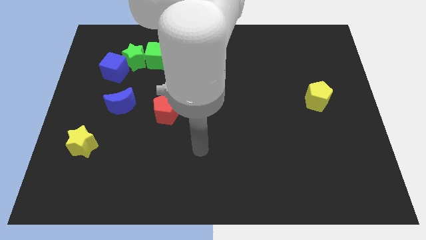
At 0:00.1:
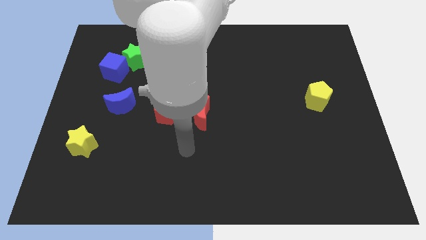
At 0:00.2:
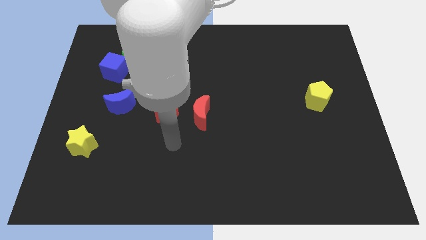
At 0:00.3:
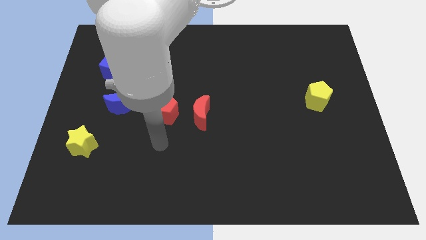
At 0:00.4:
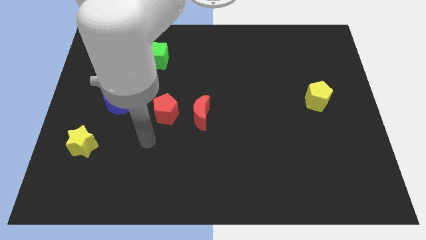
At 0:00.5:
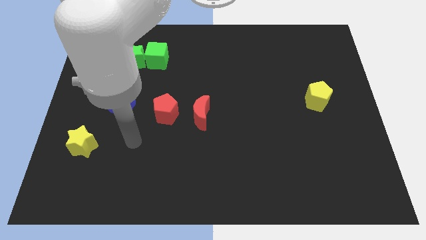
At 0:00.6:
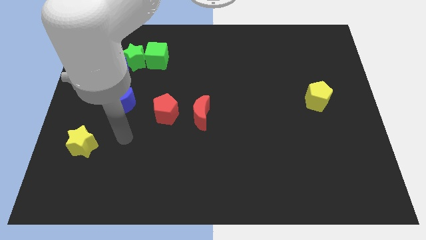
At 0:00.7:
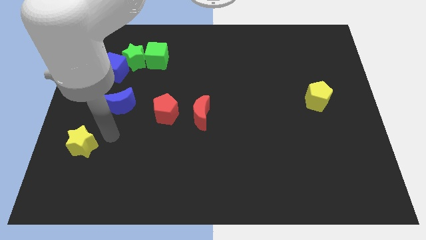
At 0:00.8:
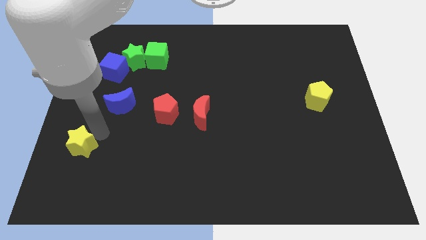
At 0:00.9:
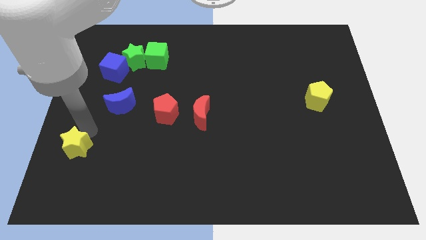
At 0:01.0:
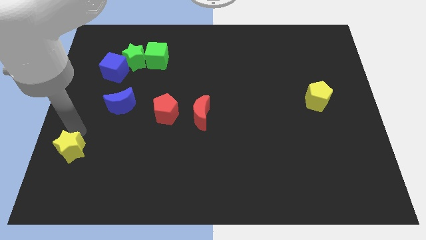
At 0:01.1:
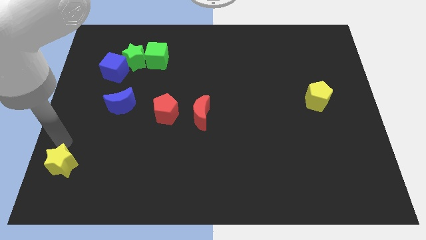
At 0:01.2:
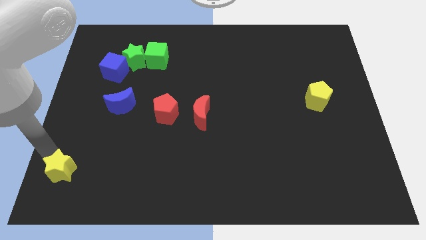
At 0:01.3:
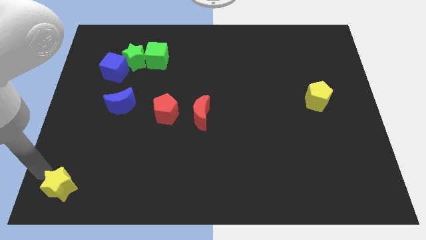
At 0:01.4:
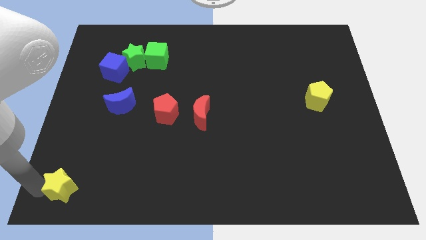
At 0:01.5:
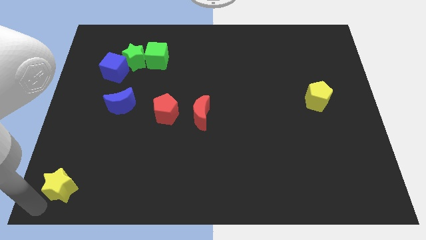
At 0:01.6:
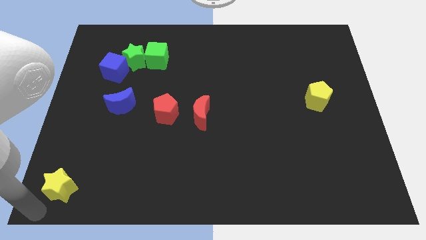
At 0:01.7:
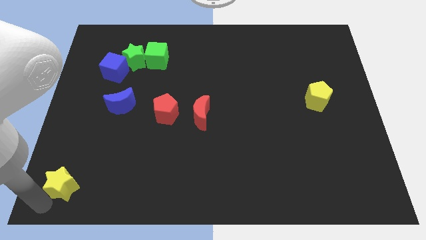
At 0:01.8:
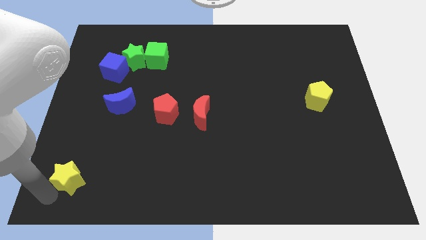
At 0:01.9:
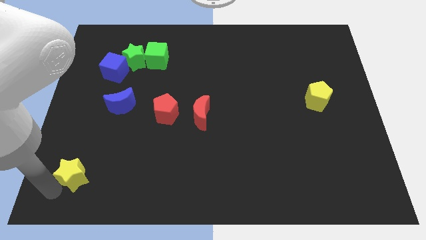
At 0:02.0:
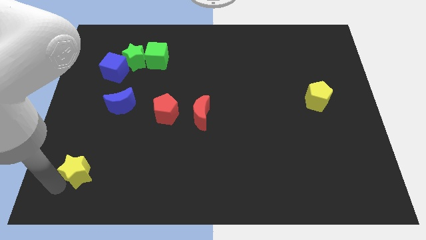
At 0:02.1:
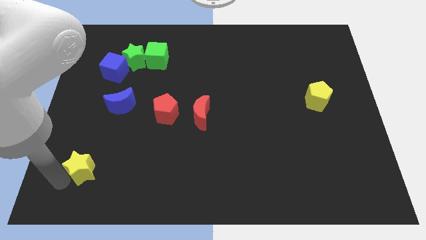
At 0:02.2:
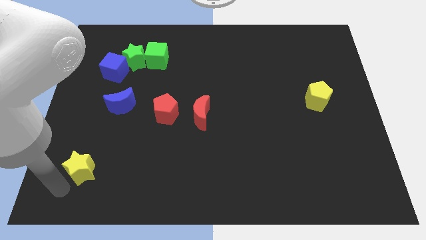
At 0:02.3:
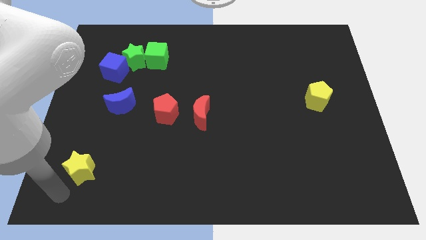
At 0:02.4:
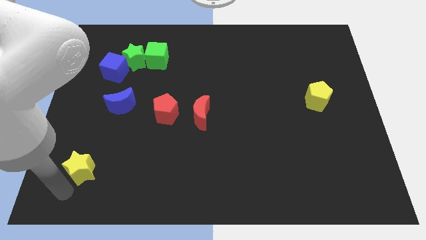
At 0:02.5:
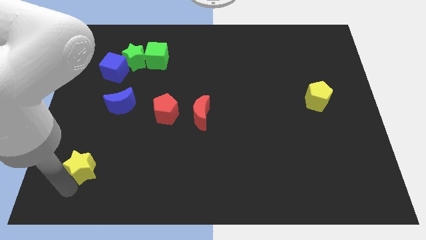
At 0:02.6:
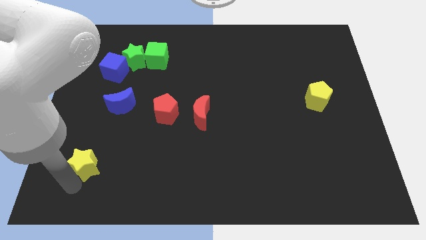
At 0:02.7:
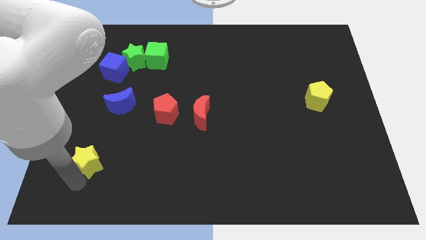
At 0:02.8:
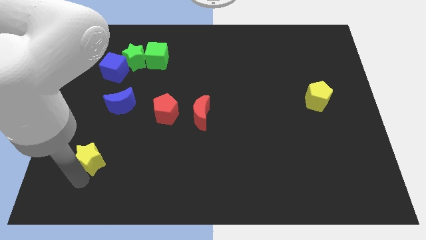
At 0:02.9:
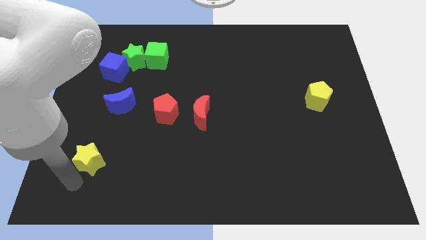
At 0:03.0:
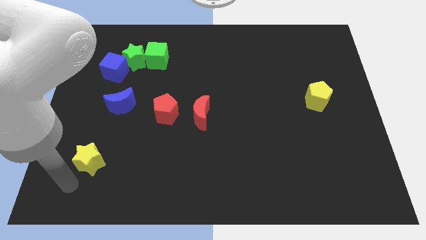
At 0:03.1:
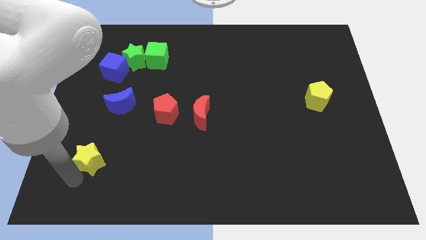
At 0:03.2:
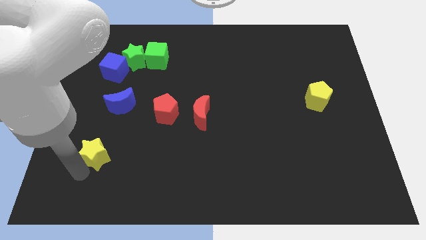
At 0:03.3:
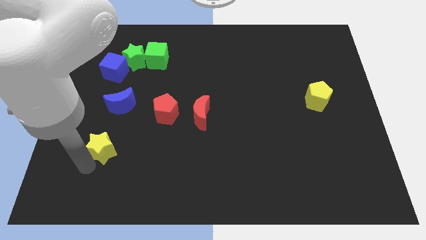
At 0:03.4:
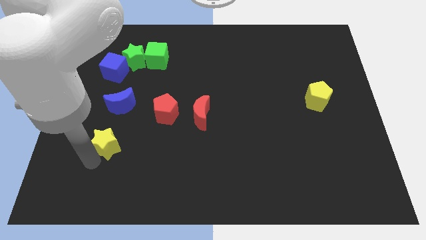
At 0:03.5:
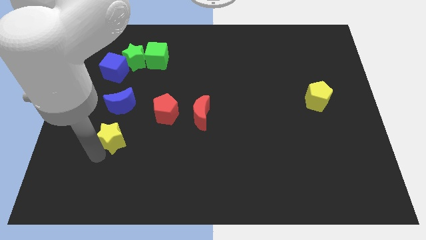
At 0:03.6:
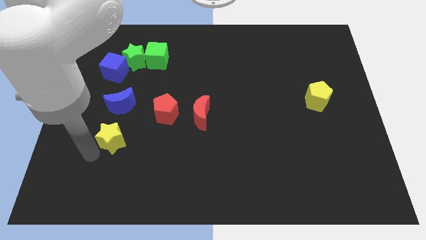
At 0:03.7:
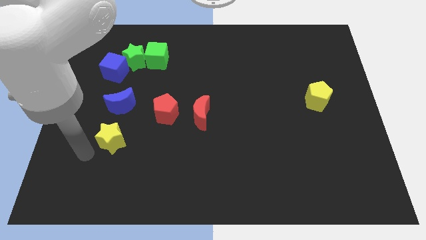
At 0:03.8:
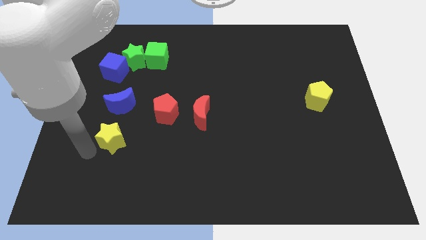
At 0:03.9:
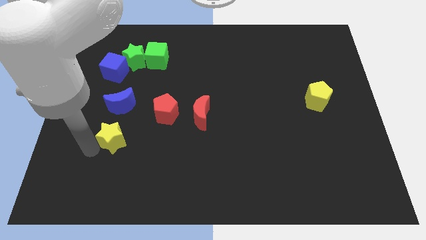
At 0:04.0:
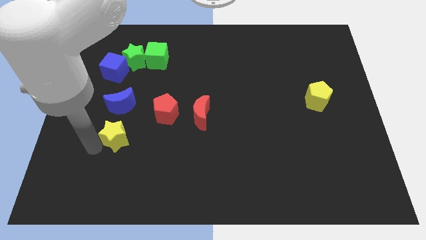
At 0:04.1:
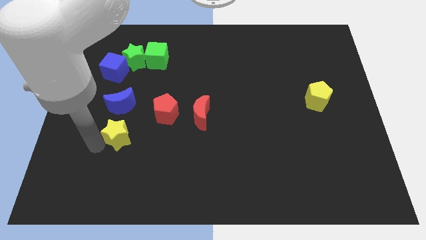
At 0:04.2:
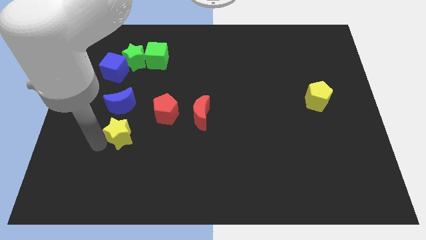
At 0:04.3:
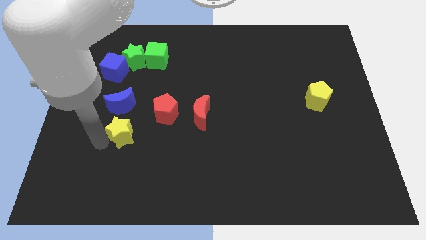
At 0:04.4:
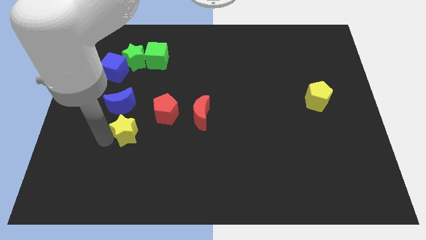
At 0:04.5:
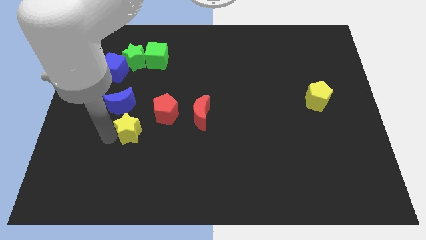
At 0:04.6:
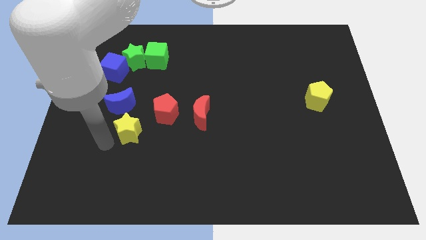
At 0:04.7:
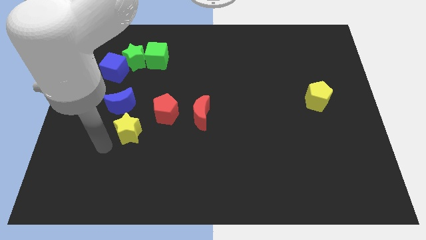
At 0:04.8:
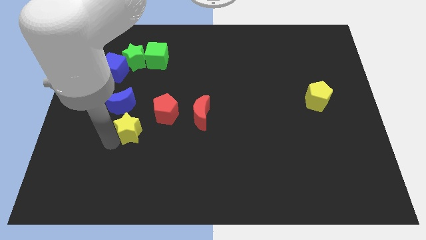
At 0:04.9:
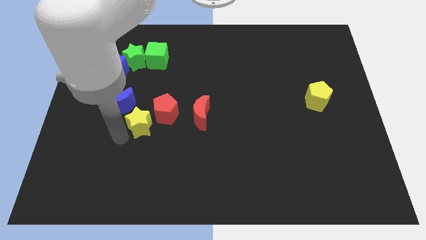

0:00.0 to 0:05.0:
slide the yellow star towards the red pentagon

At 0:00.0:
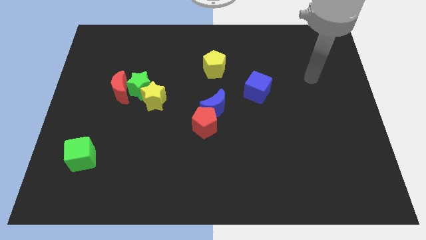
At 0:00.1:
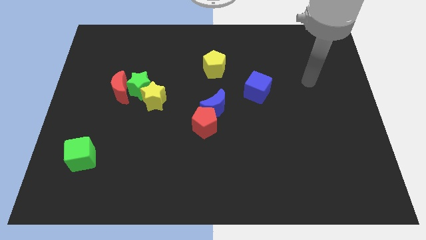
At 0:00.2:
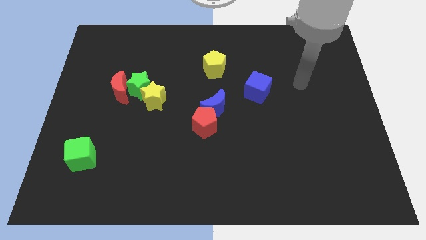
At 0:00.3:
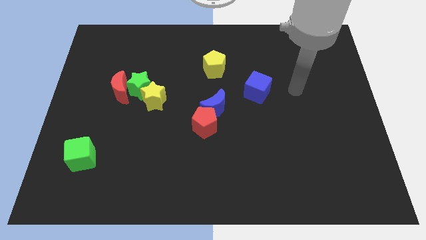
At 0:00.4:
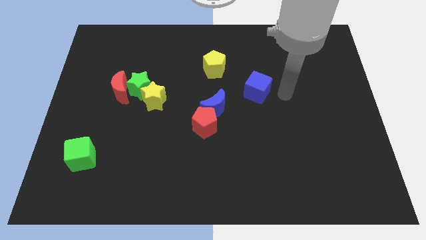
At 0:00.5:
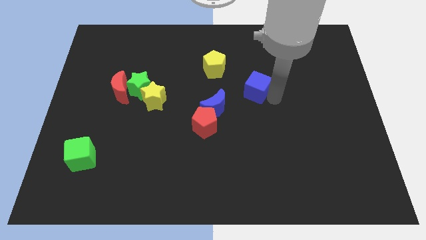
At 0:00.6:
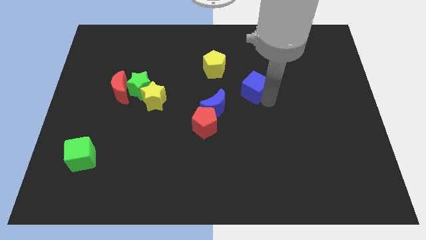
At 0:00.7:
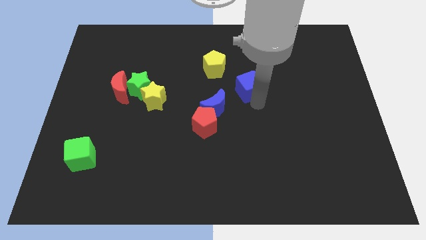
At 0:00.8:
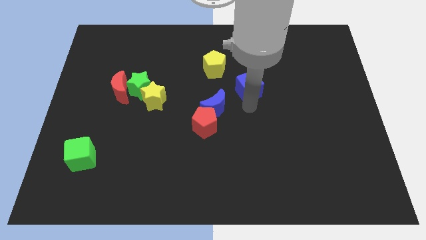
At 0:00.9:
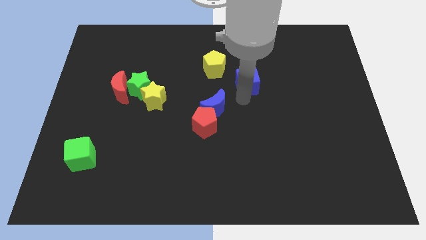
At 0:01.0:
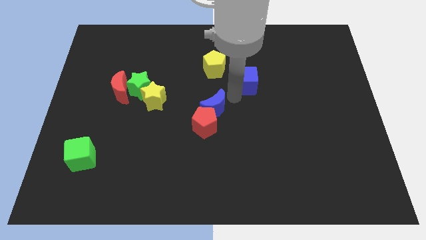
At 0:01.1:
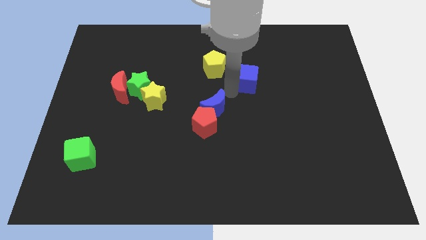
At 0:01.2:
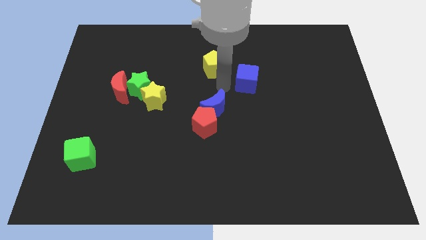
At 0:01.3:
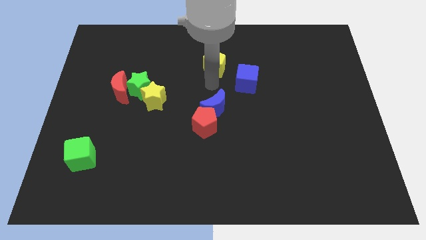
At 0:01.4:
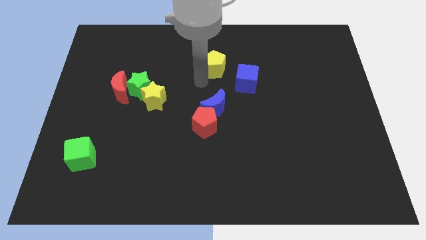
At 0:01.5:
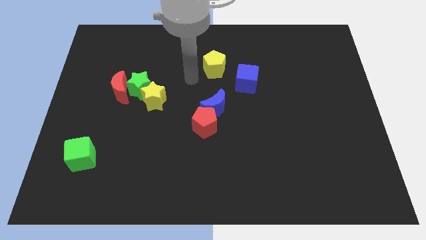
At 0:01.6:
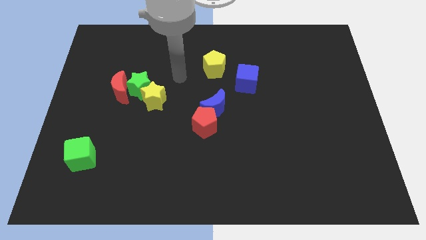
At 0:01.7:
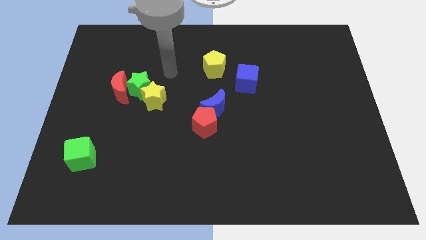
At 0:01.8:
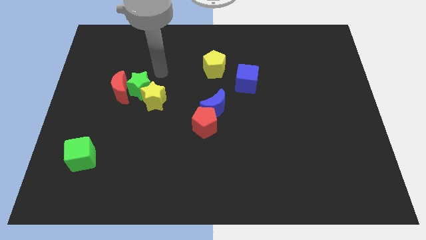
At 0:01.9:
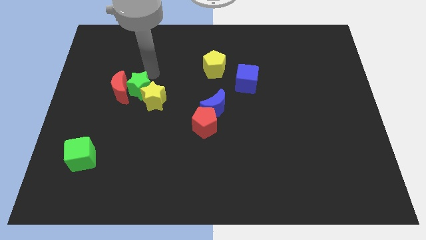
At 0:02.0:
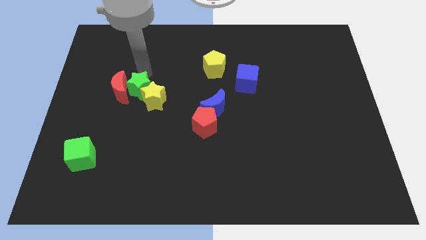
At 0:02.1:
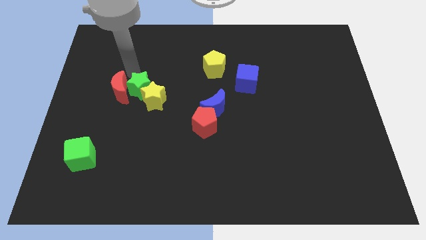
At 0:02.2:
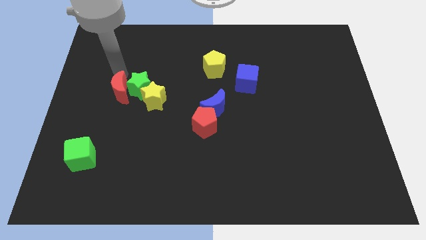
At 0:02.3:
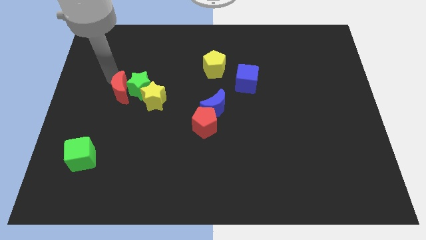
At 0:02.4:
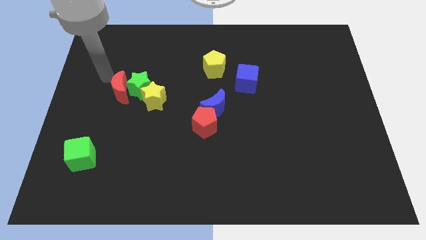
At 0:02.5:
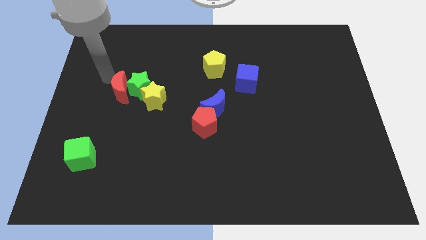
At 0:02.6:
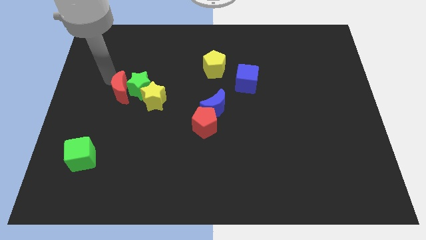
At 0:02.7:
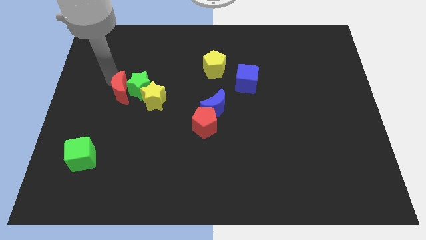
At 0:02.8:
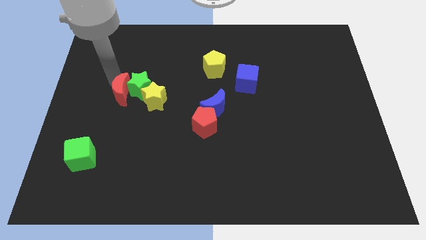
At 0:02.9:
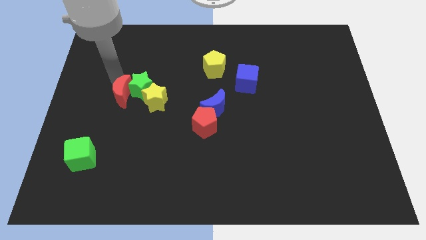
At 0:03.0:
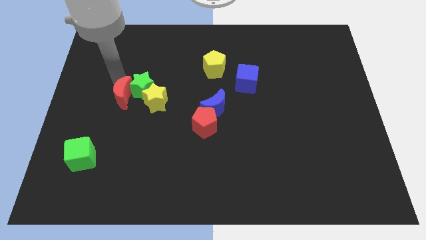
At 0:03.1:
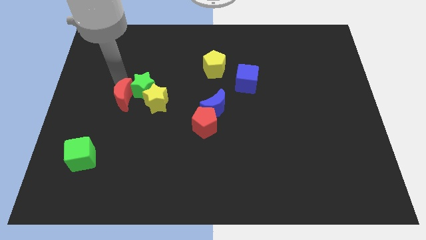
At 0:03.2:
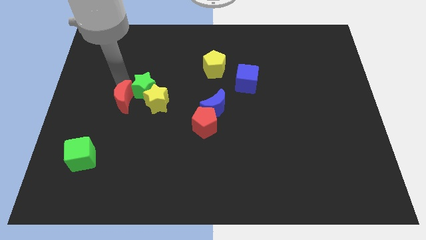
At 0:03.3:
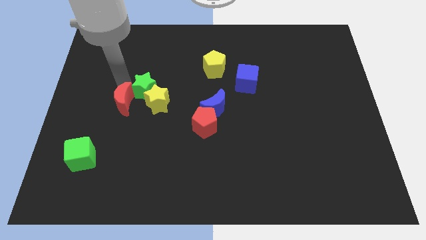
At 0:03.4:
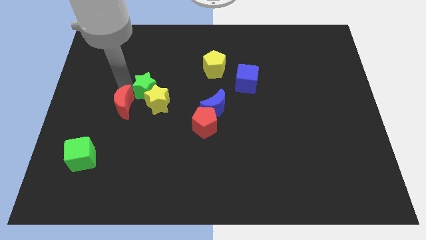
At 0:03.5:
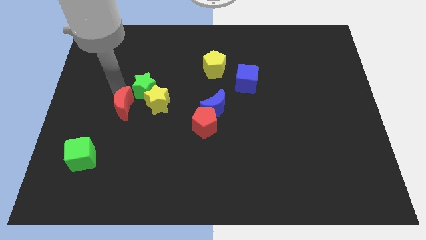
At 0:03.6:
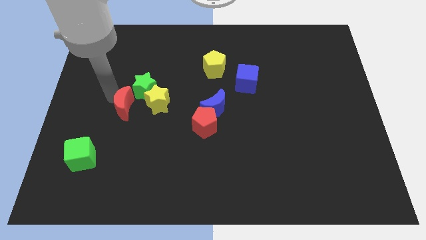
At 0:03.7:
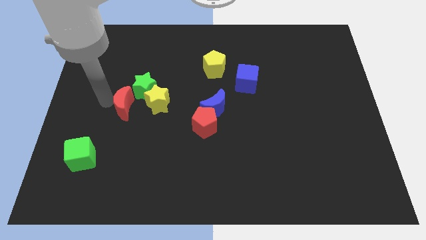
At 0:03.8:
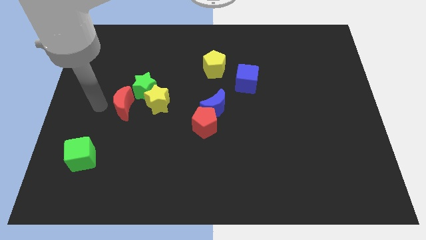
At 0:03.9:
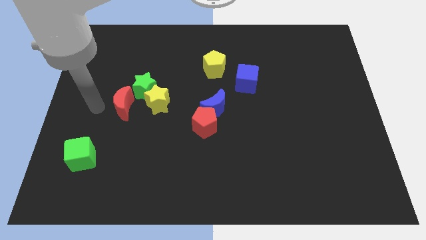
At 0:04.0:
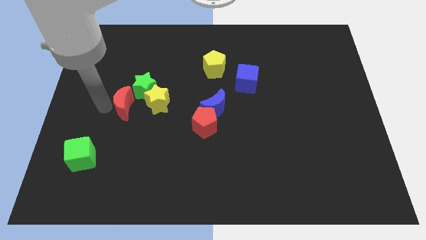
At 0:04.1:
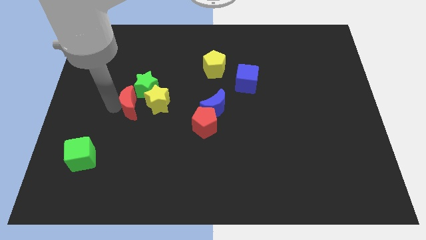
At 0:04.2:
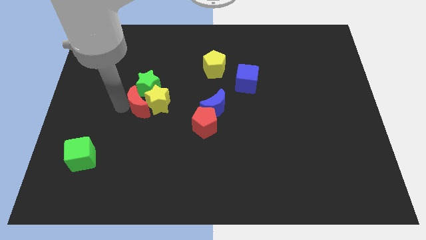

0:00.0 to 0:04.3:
move the red moon next to the yellow star
